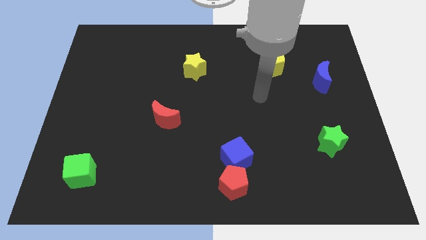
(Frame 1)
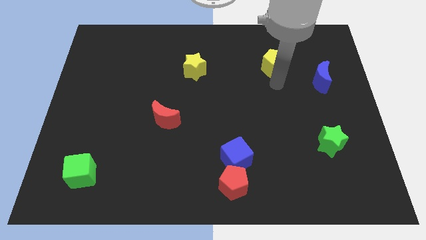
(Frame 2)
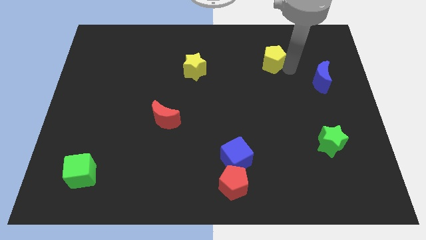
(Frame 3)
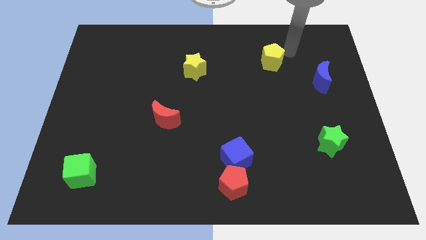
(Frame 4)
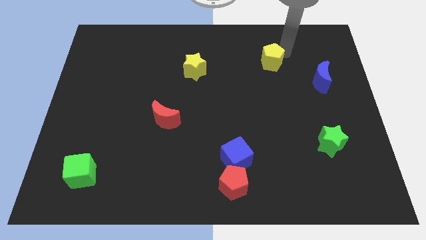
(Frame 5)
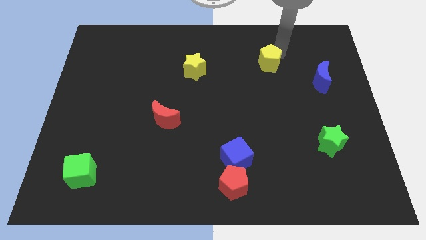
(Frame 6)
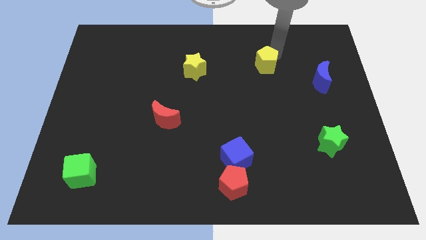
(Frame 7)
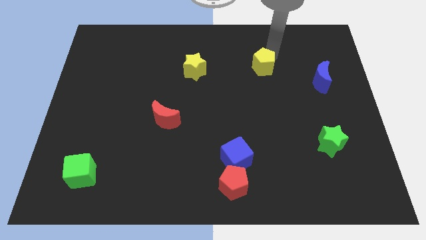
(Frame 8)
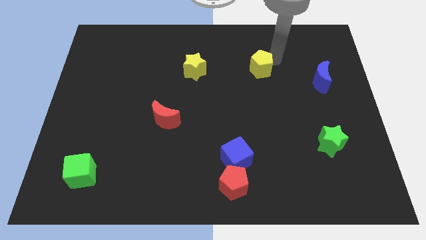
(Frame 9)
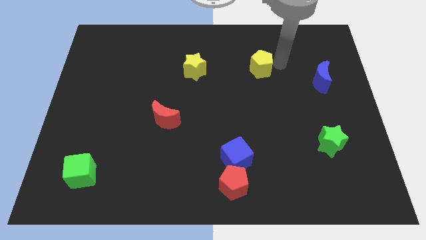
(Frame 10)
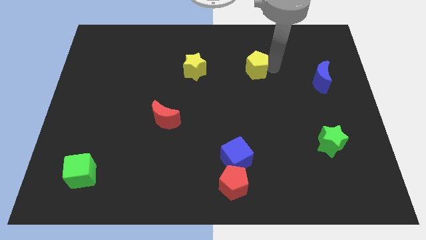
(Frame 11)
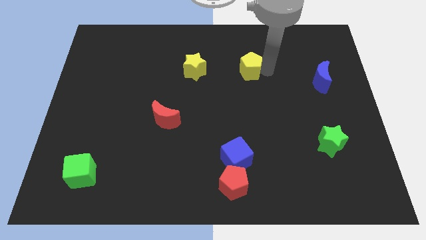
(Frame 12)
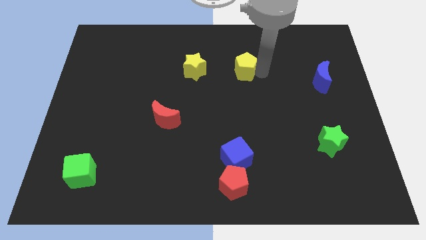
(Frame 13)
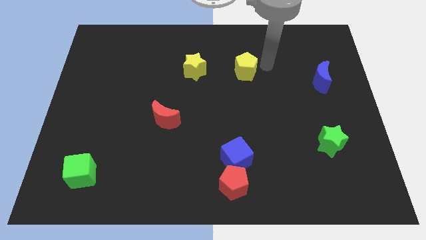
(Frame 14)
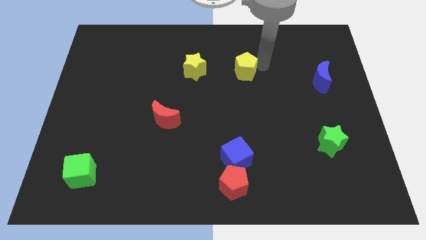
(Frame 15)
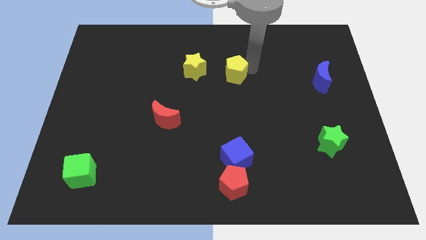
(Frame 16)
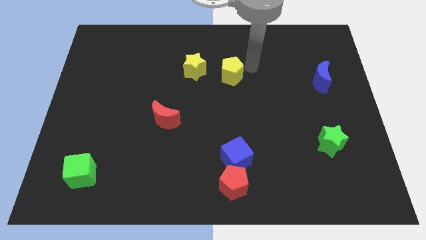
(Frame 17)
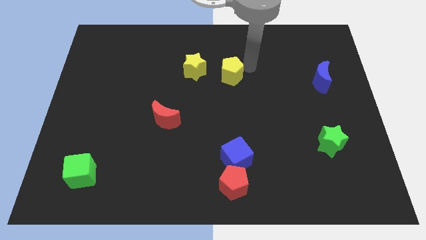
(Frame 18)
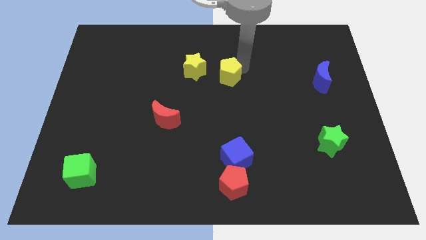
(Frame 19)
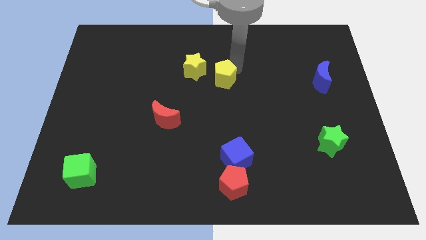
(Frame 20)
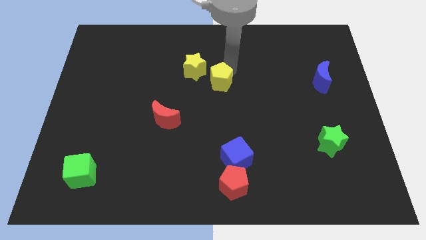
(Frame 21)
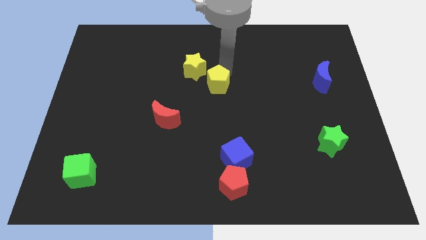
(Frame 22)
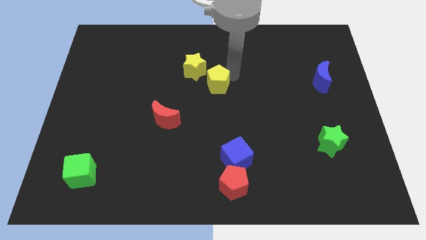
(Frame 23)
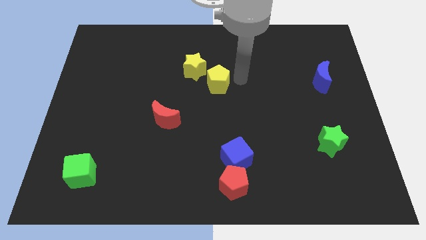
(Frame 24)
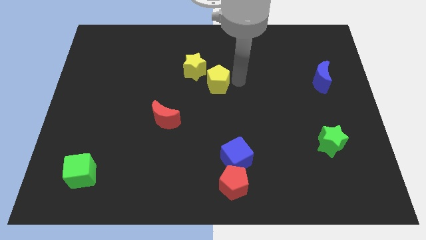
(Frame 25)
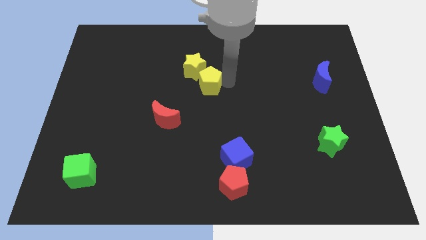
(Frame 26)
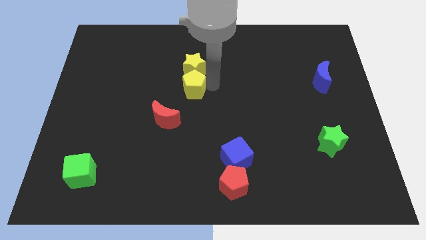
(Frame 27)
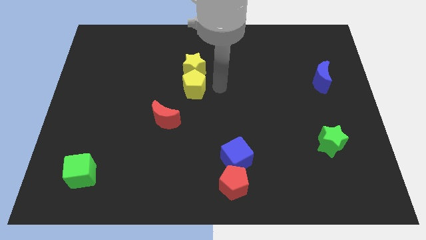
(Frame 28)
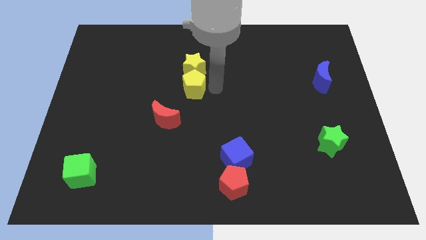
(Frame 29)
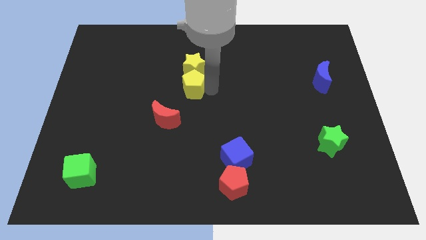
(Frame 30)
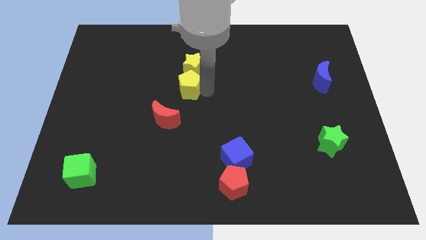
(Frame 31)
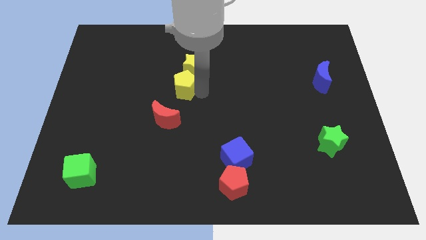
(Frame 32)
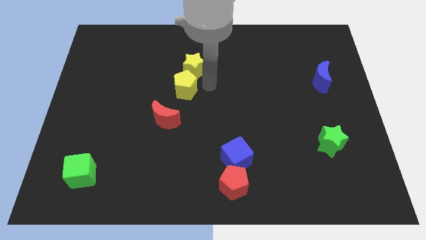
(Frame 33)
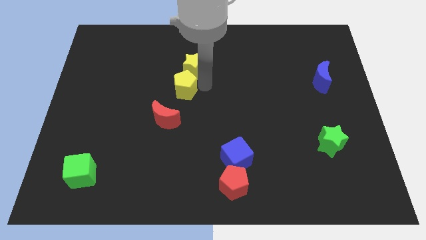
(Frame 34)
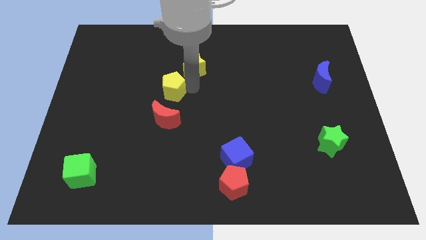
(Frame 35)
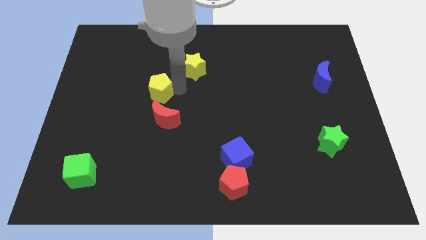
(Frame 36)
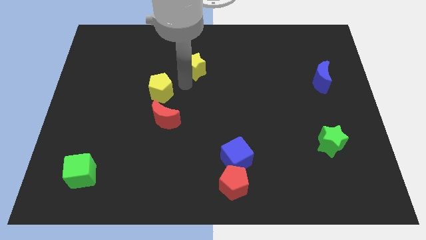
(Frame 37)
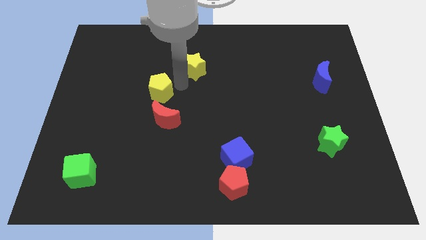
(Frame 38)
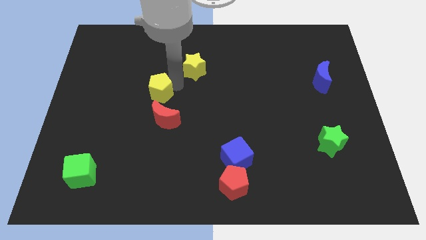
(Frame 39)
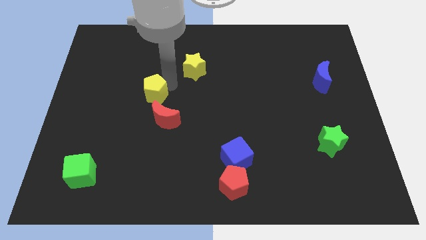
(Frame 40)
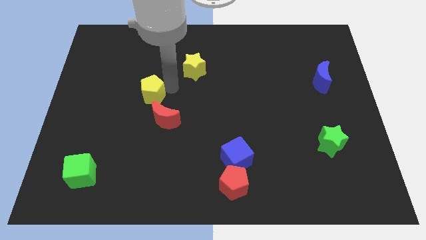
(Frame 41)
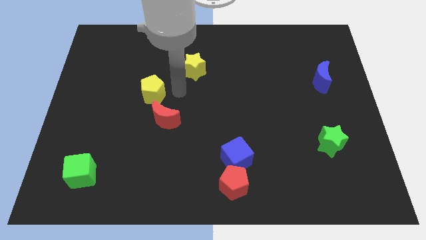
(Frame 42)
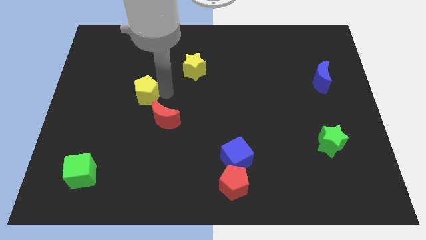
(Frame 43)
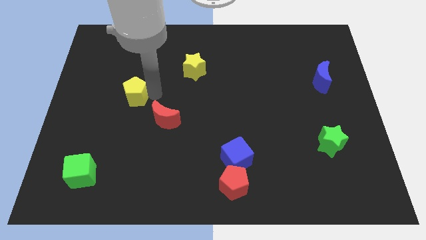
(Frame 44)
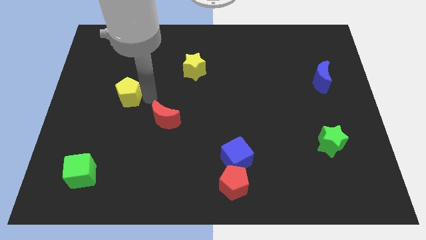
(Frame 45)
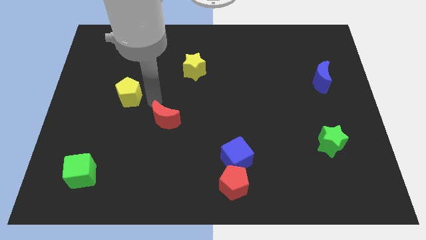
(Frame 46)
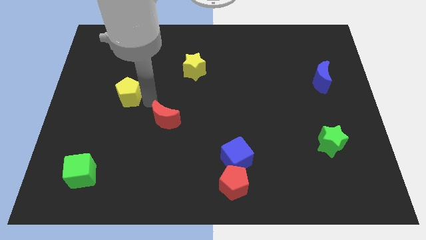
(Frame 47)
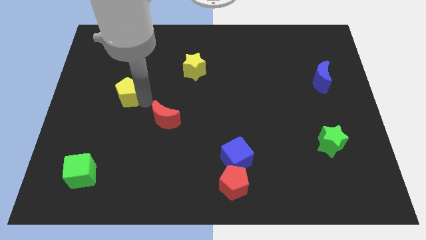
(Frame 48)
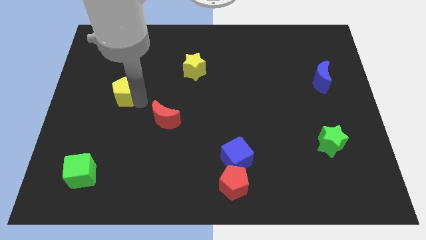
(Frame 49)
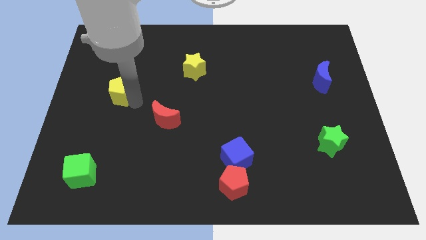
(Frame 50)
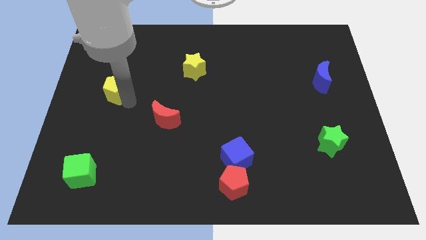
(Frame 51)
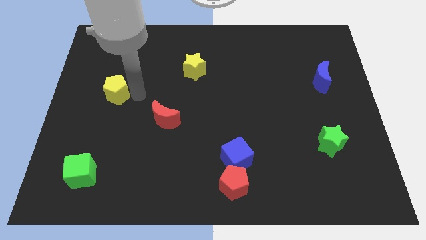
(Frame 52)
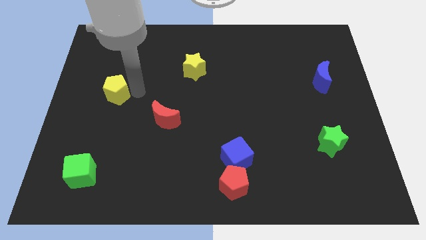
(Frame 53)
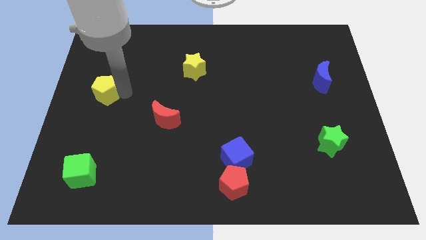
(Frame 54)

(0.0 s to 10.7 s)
push the yellow pentagon to the left side of the board
